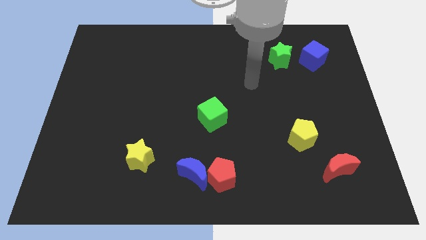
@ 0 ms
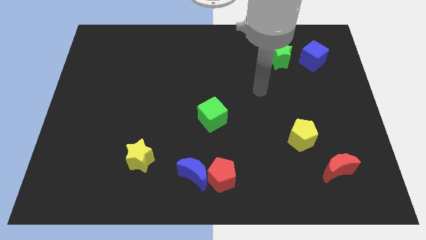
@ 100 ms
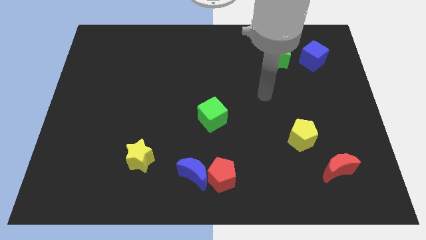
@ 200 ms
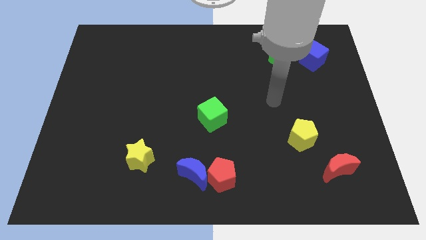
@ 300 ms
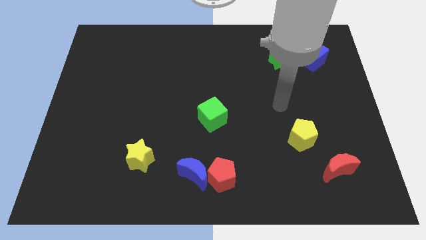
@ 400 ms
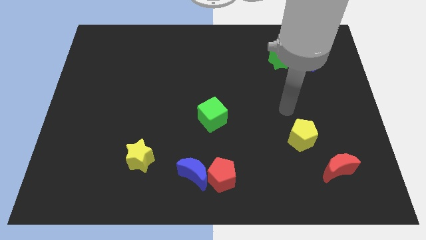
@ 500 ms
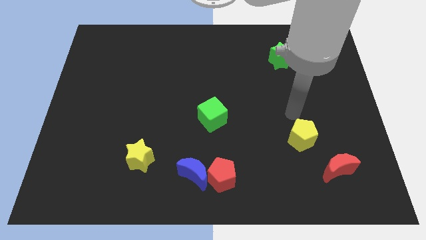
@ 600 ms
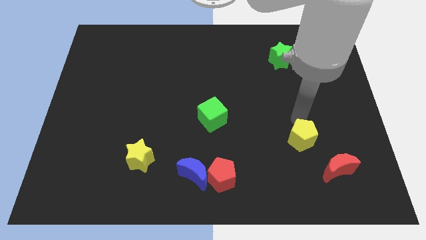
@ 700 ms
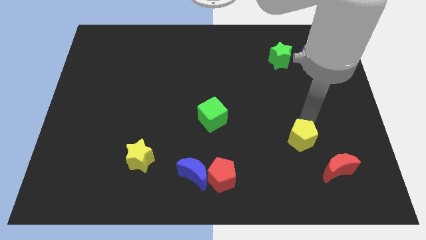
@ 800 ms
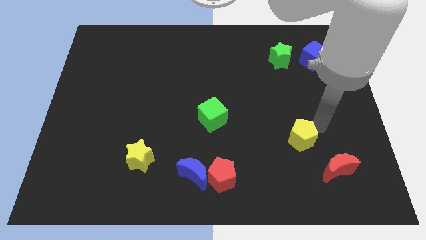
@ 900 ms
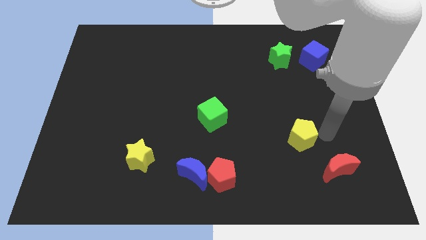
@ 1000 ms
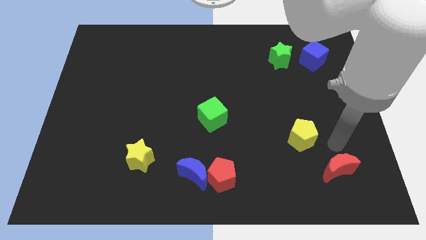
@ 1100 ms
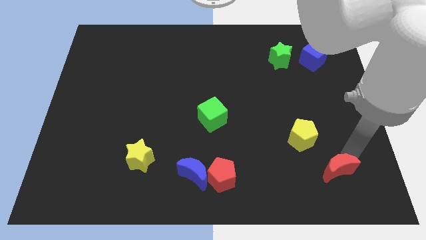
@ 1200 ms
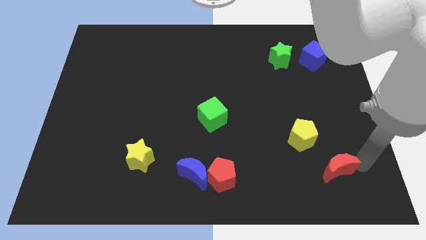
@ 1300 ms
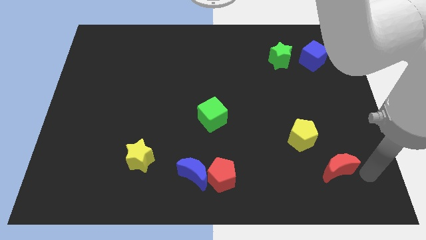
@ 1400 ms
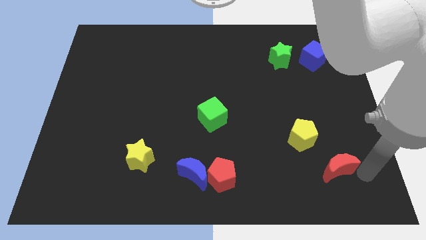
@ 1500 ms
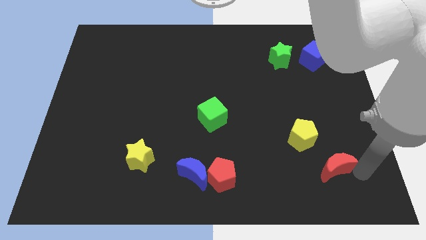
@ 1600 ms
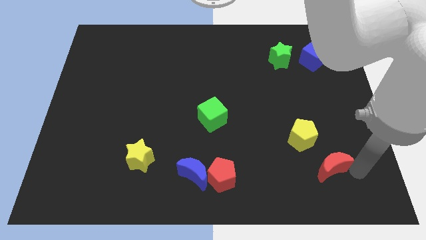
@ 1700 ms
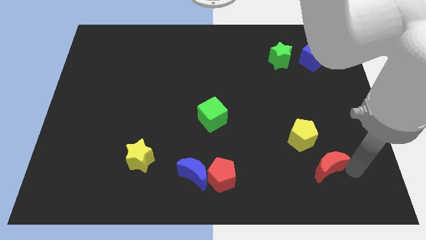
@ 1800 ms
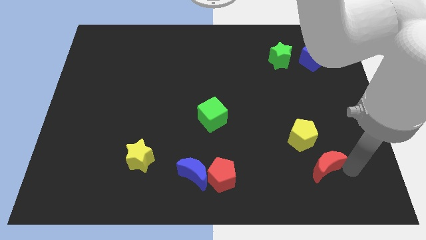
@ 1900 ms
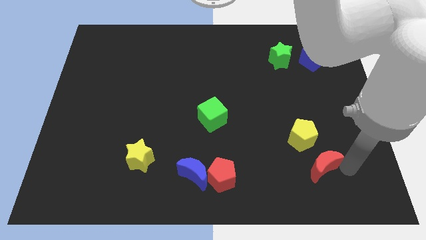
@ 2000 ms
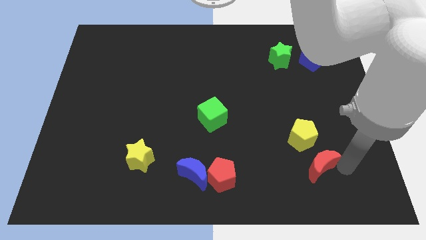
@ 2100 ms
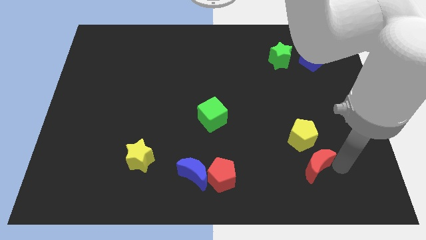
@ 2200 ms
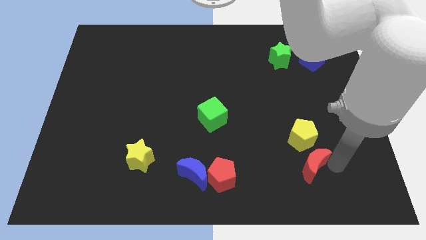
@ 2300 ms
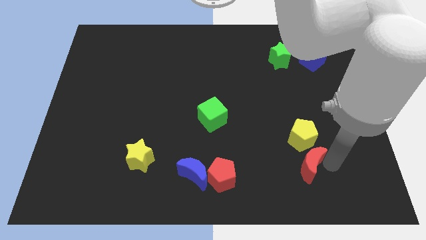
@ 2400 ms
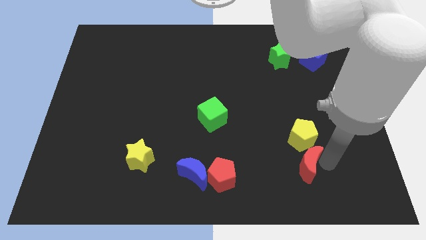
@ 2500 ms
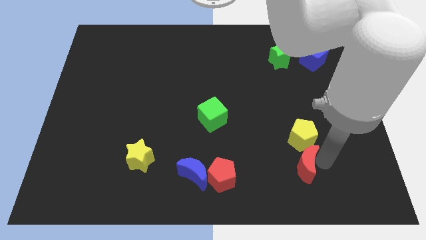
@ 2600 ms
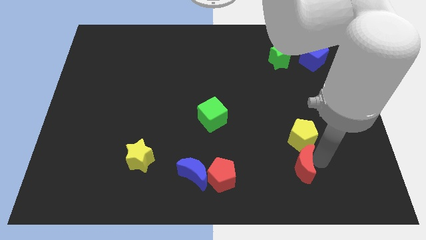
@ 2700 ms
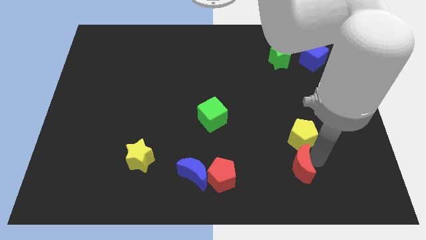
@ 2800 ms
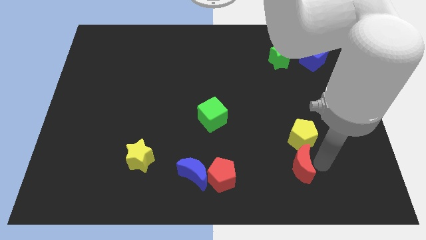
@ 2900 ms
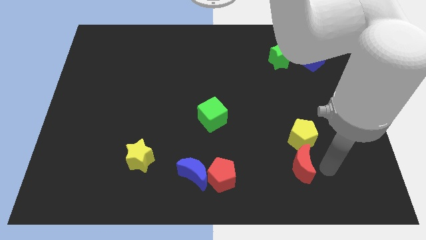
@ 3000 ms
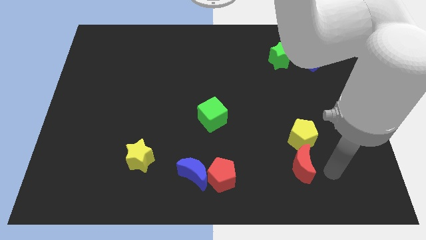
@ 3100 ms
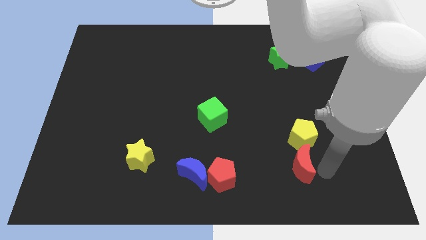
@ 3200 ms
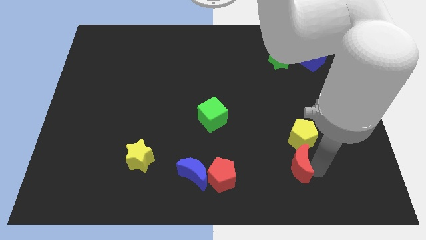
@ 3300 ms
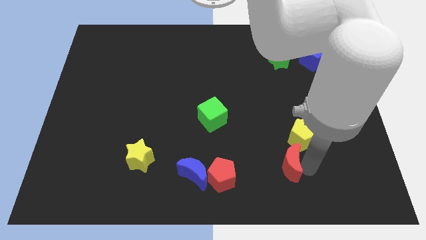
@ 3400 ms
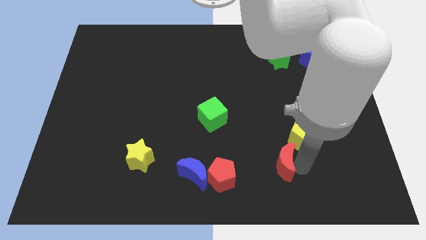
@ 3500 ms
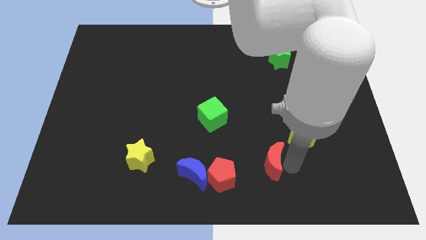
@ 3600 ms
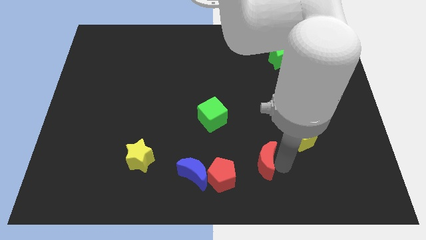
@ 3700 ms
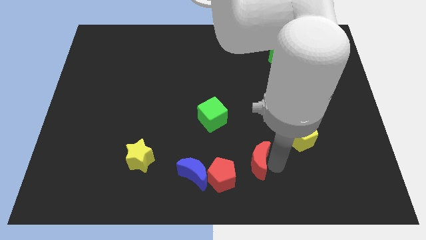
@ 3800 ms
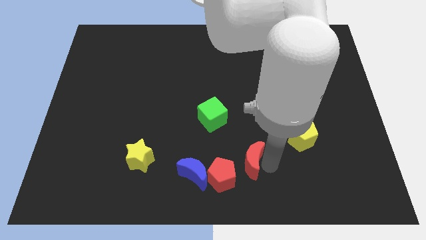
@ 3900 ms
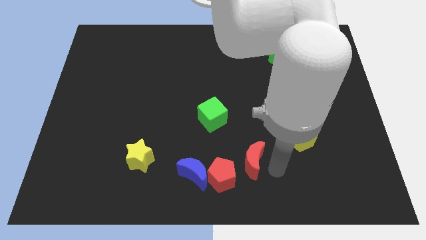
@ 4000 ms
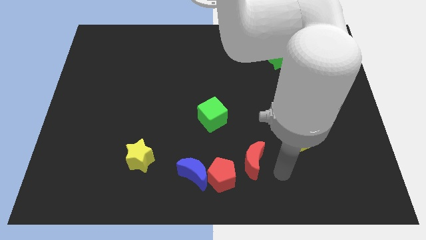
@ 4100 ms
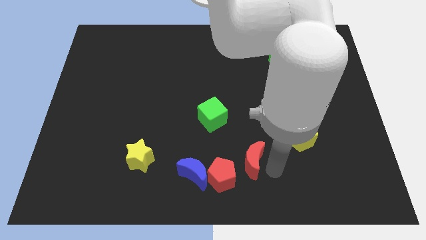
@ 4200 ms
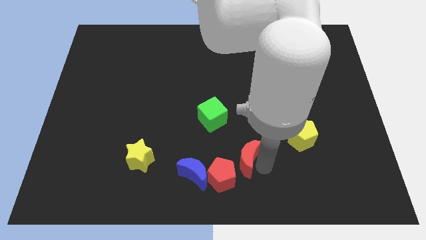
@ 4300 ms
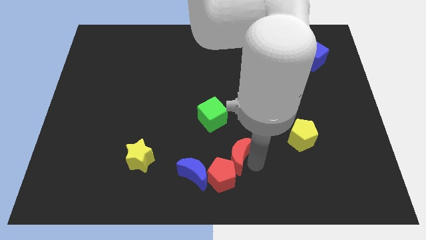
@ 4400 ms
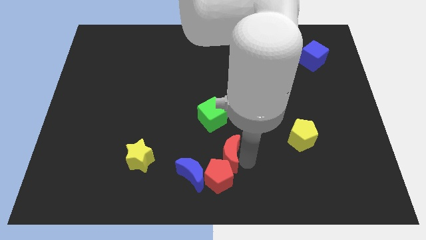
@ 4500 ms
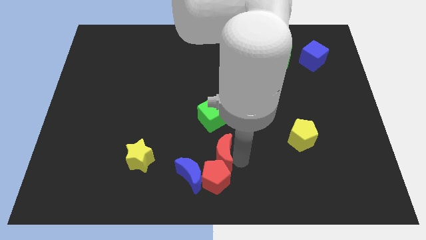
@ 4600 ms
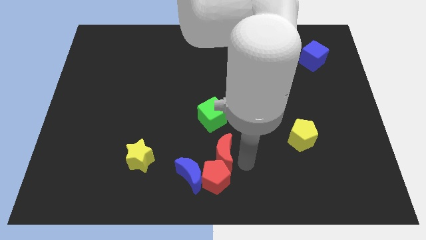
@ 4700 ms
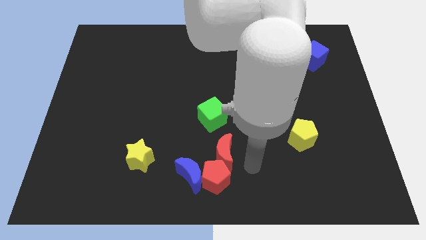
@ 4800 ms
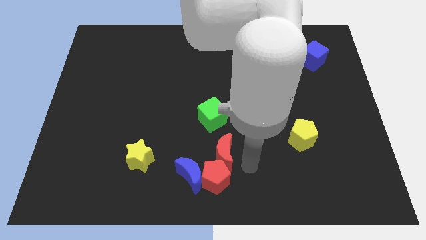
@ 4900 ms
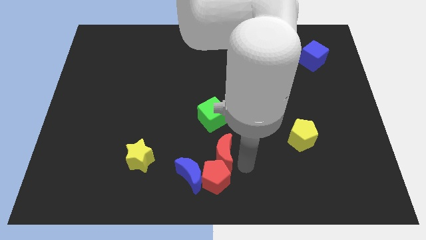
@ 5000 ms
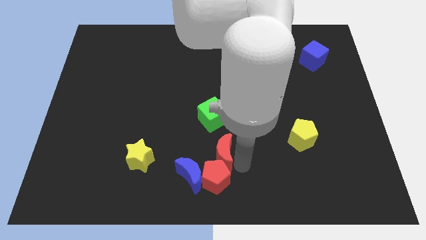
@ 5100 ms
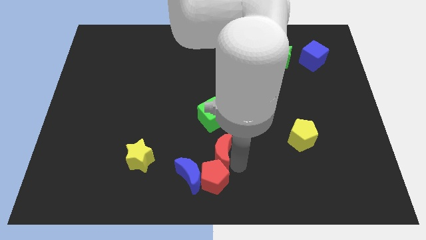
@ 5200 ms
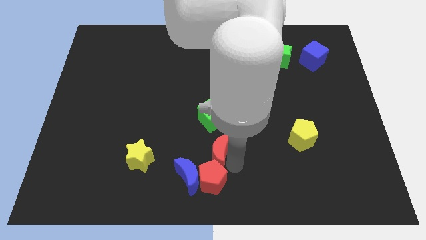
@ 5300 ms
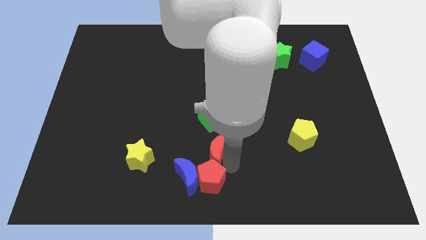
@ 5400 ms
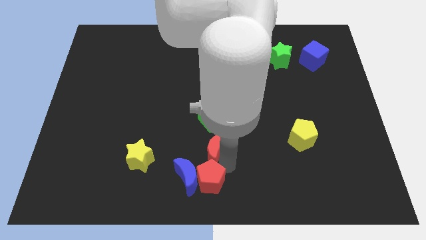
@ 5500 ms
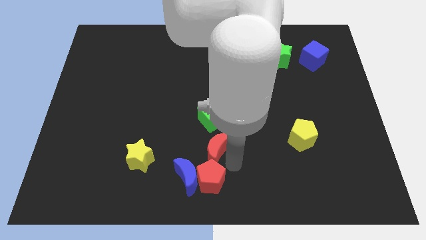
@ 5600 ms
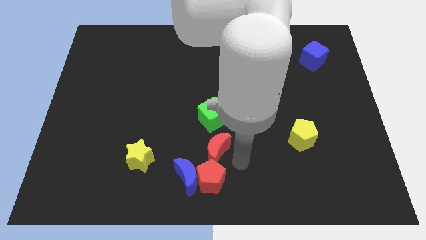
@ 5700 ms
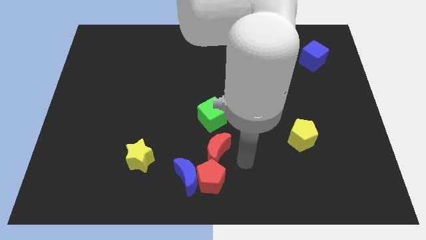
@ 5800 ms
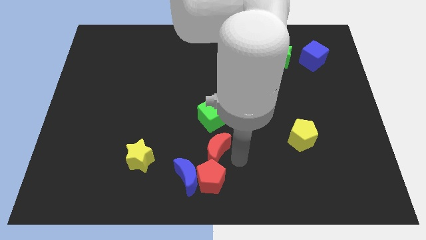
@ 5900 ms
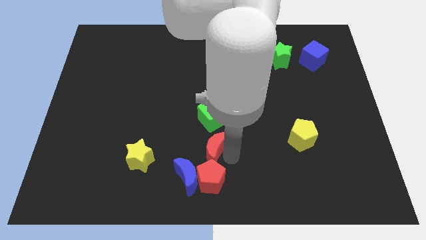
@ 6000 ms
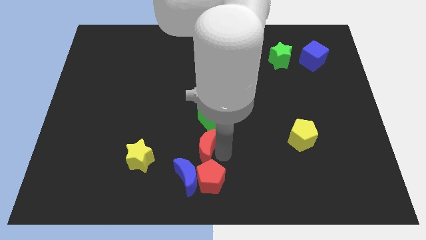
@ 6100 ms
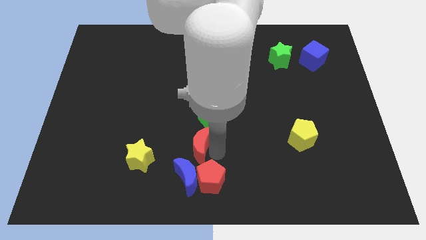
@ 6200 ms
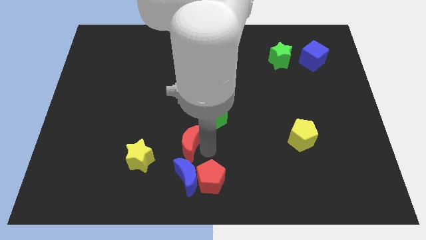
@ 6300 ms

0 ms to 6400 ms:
push the red moon to the top right side of the yellow star

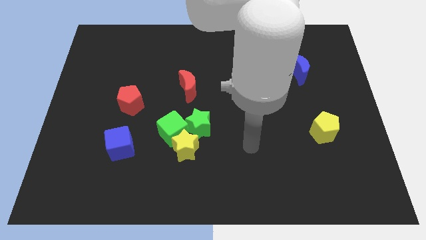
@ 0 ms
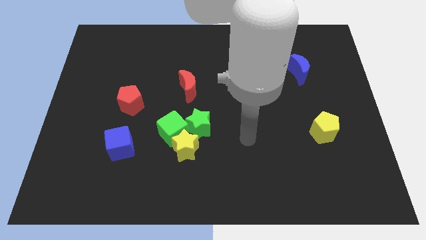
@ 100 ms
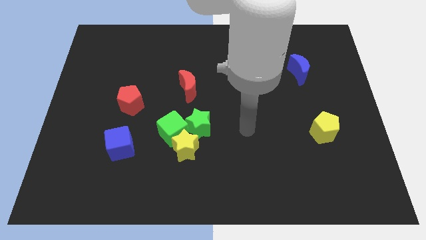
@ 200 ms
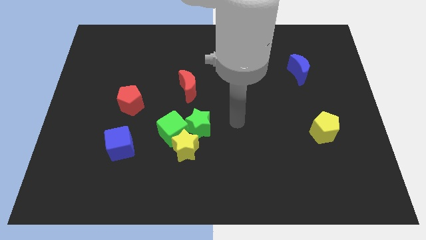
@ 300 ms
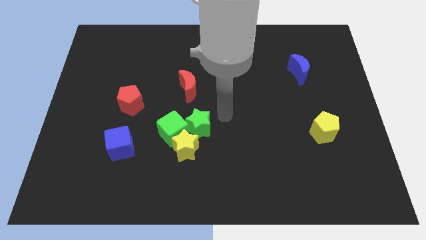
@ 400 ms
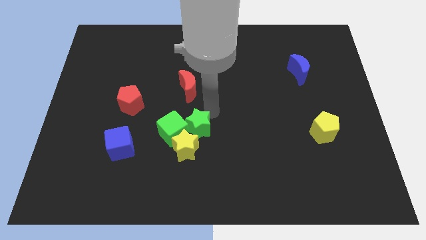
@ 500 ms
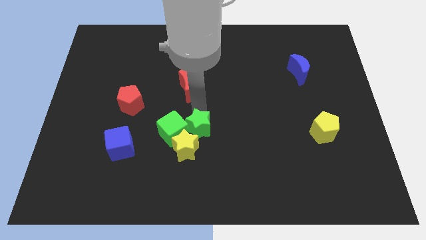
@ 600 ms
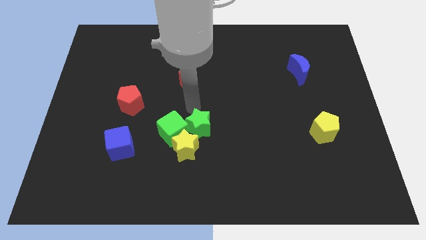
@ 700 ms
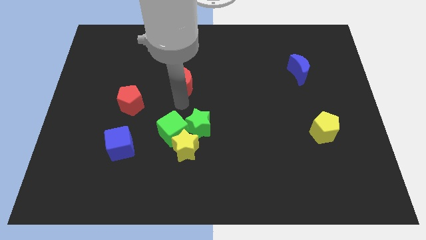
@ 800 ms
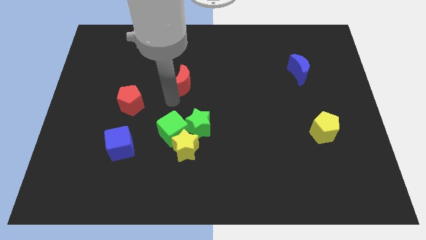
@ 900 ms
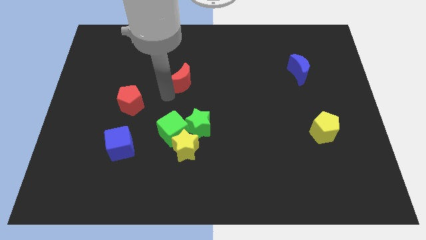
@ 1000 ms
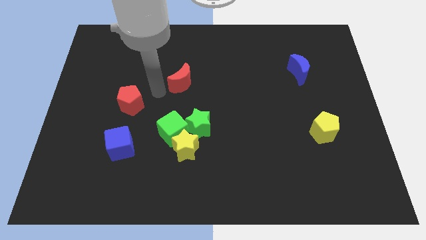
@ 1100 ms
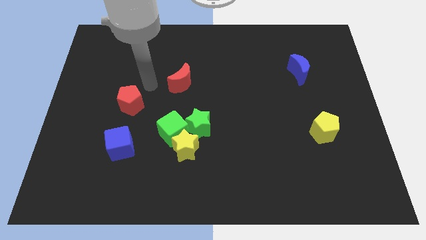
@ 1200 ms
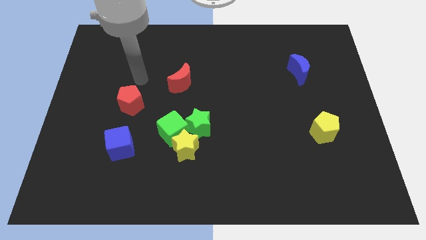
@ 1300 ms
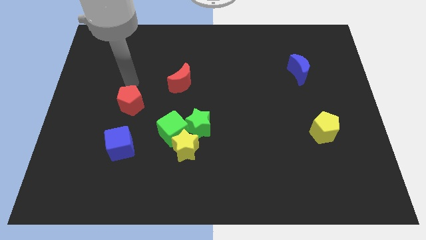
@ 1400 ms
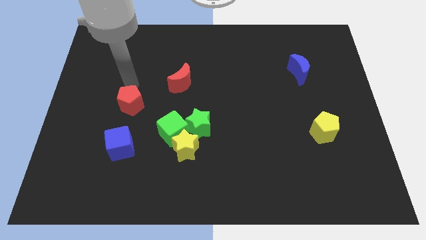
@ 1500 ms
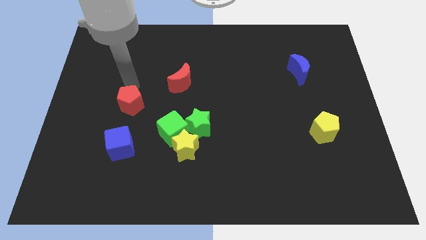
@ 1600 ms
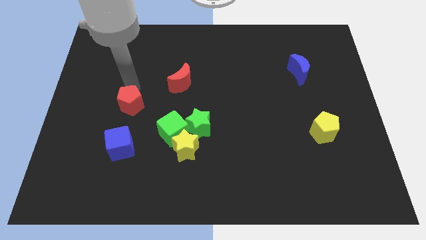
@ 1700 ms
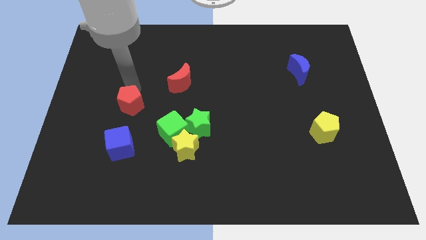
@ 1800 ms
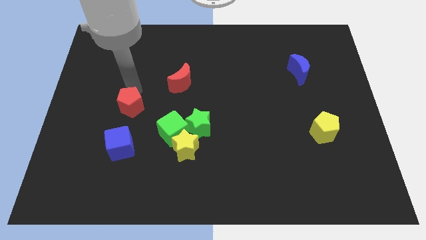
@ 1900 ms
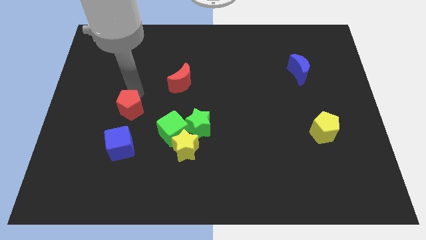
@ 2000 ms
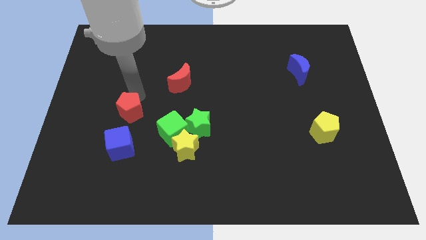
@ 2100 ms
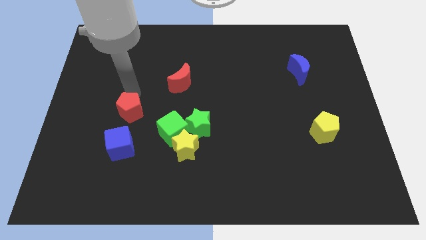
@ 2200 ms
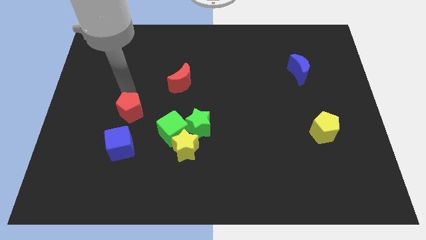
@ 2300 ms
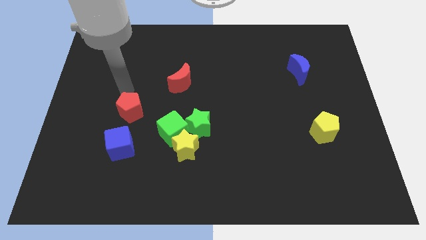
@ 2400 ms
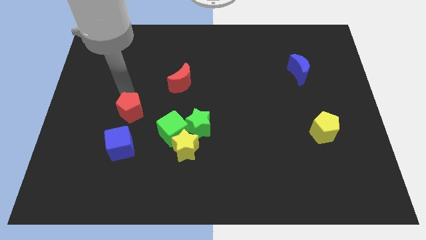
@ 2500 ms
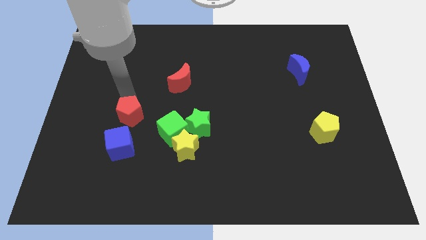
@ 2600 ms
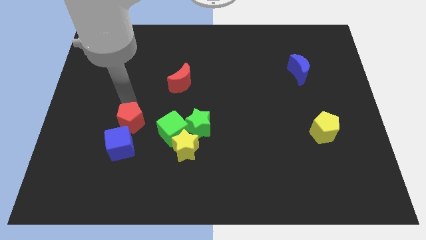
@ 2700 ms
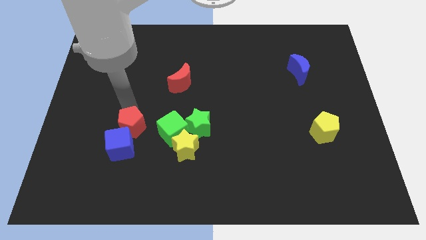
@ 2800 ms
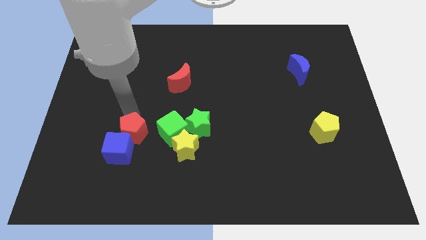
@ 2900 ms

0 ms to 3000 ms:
push the red pentagon to the left of the yellow star
